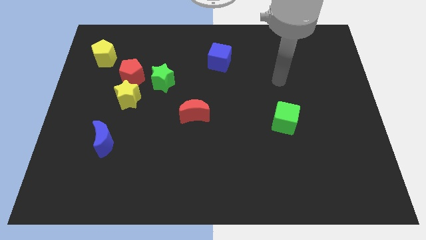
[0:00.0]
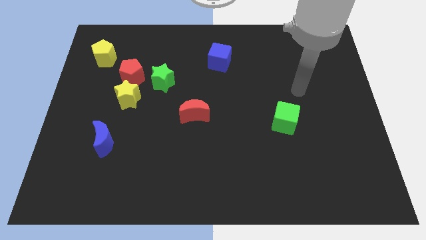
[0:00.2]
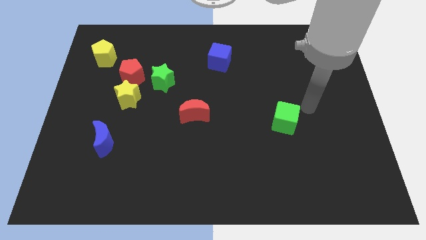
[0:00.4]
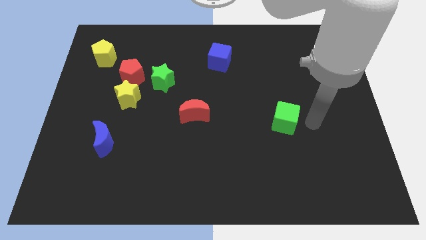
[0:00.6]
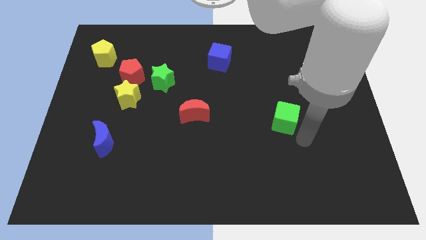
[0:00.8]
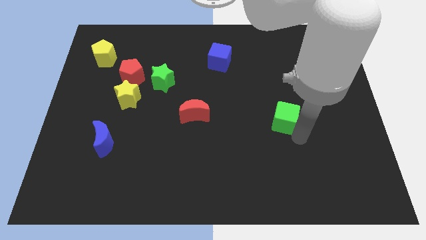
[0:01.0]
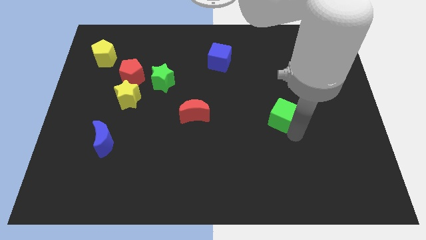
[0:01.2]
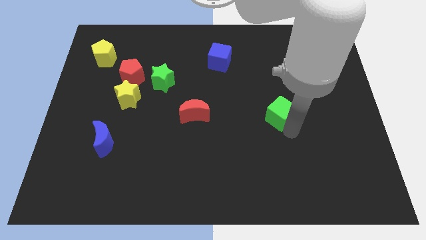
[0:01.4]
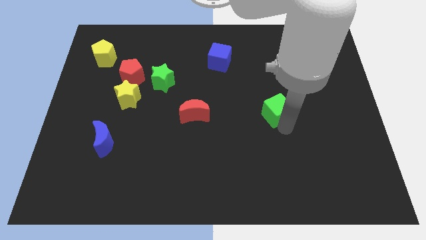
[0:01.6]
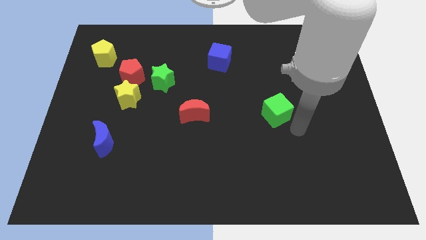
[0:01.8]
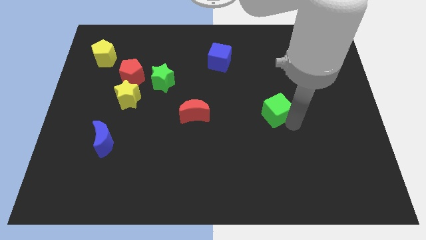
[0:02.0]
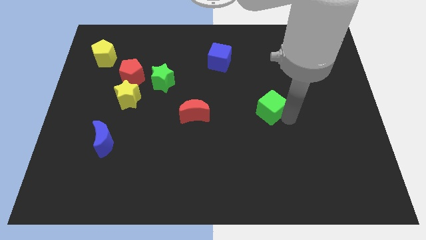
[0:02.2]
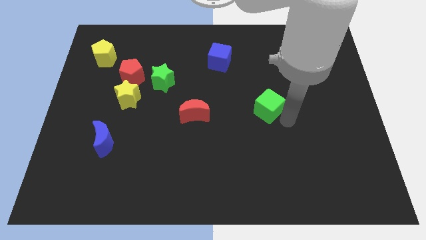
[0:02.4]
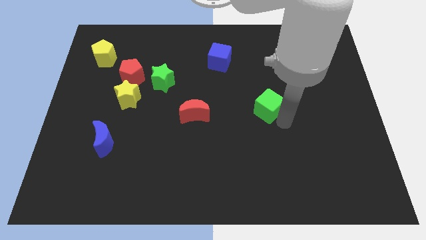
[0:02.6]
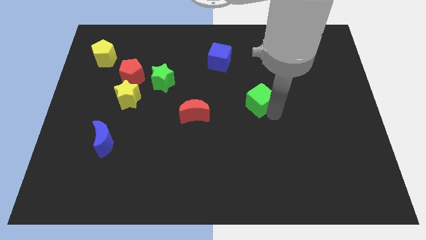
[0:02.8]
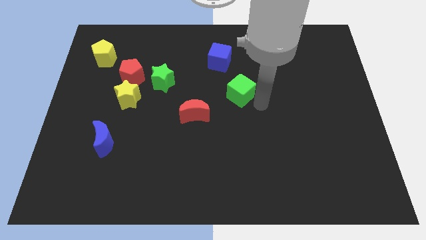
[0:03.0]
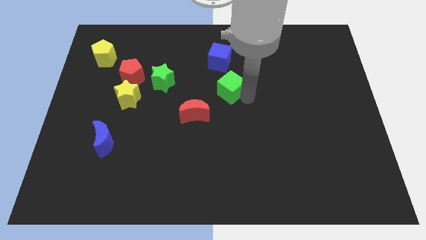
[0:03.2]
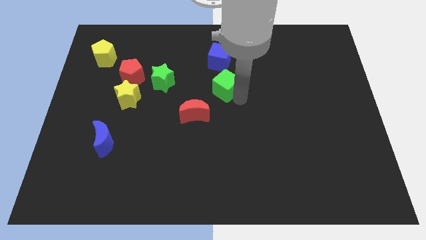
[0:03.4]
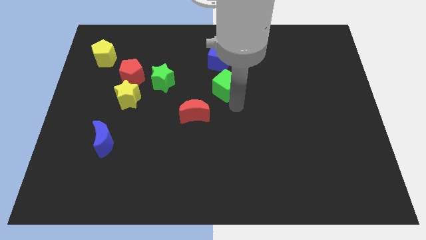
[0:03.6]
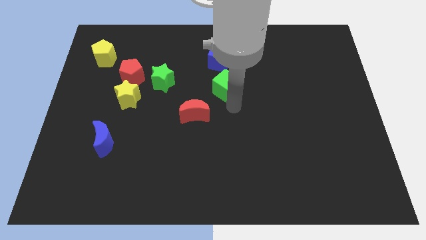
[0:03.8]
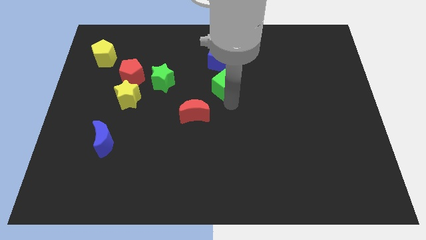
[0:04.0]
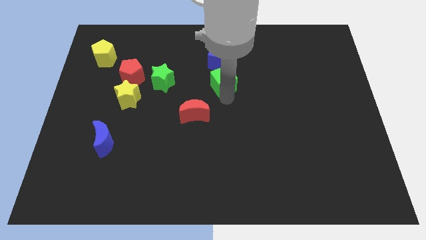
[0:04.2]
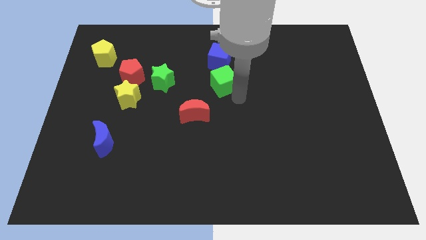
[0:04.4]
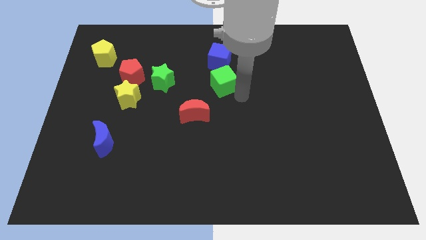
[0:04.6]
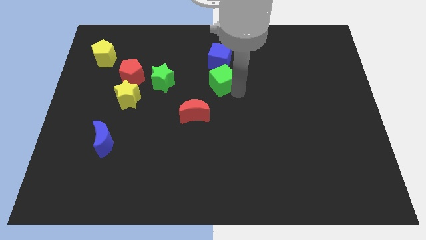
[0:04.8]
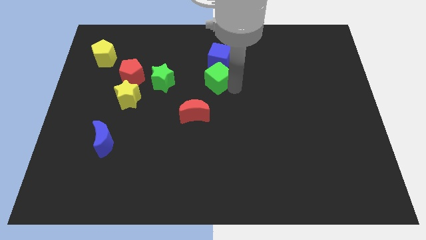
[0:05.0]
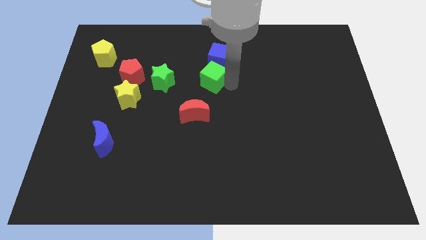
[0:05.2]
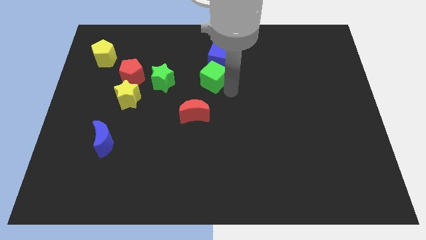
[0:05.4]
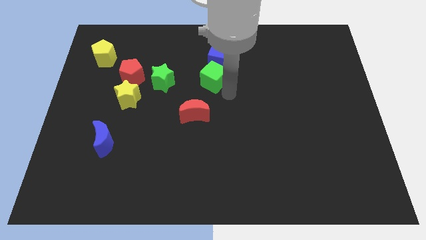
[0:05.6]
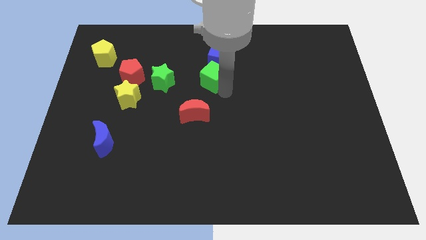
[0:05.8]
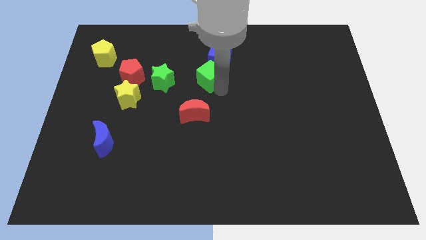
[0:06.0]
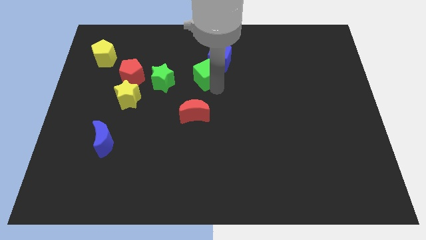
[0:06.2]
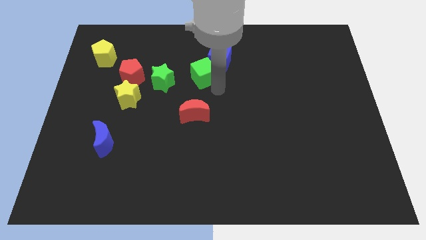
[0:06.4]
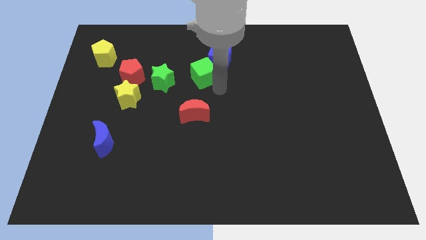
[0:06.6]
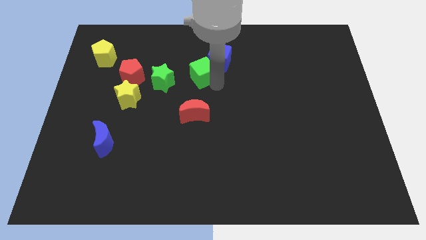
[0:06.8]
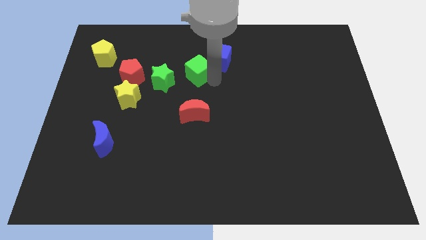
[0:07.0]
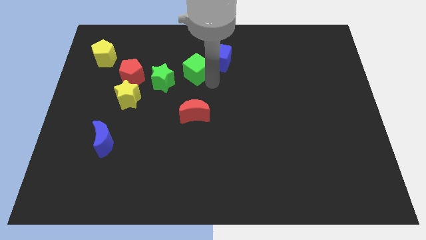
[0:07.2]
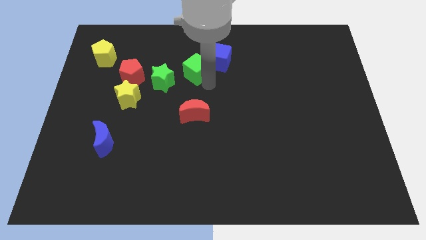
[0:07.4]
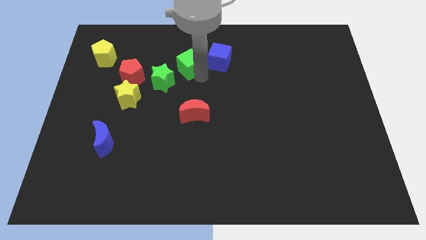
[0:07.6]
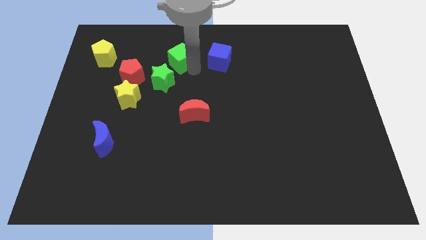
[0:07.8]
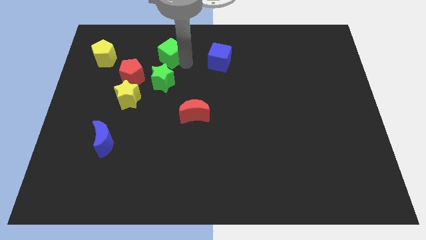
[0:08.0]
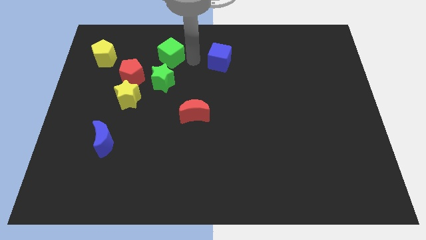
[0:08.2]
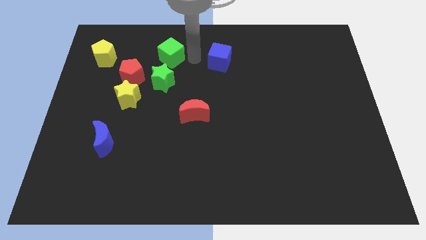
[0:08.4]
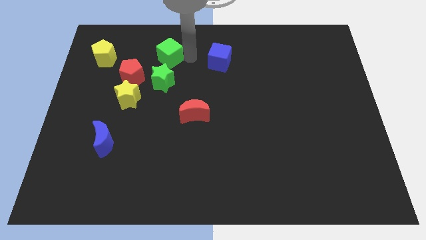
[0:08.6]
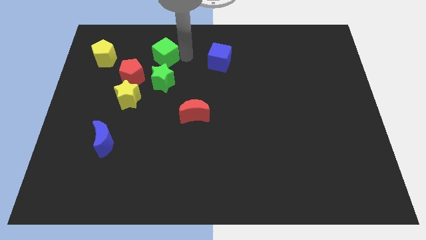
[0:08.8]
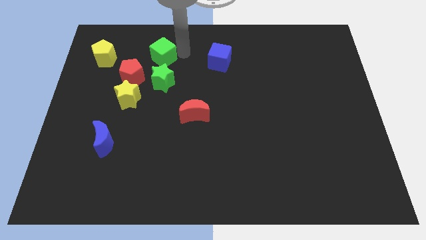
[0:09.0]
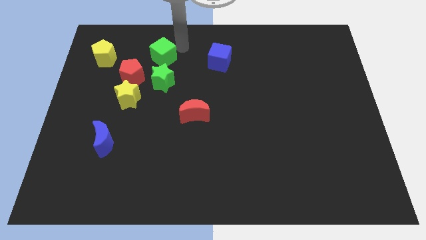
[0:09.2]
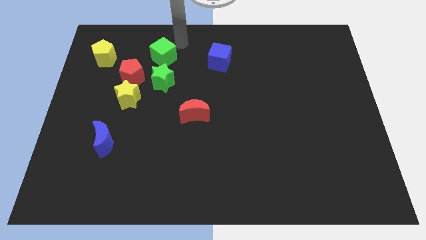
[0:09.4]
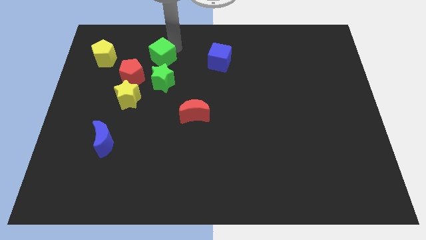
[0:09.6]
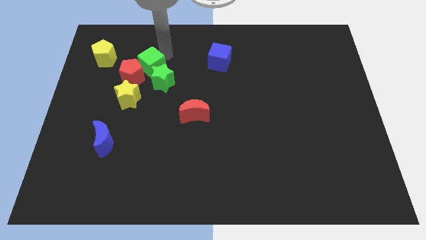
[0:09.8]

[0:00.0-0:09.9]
slide the green cube close to the red pentagon

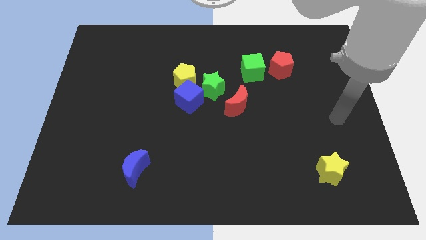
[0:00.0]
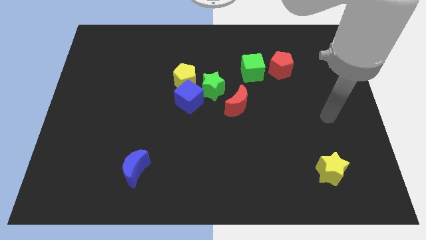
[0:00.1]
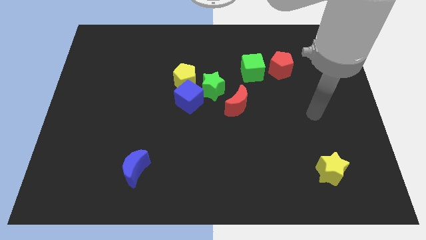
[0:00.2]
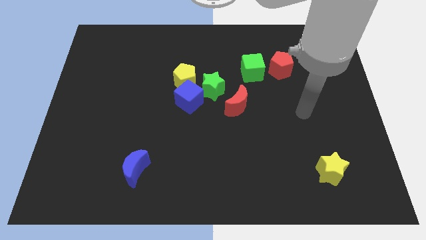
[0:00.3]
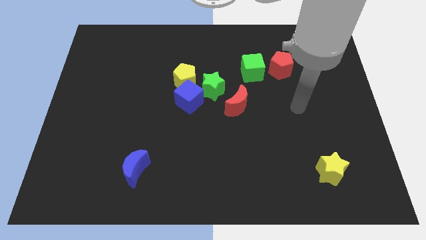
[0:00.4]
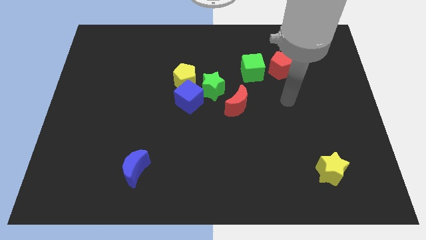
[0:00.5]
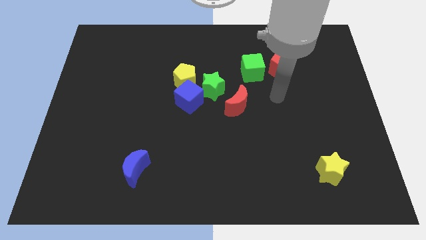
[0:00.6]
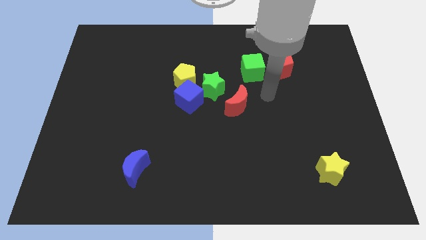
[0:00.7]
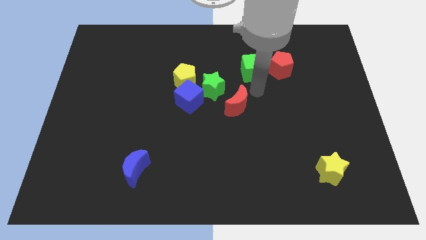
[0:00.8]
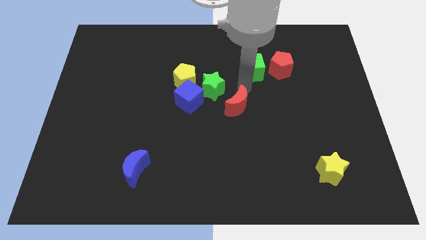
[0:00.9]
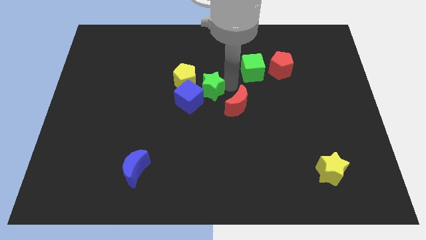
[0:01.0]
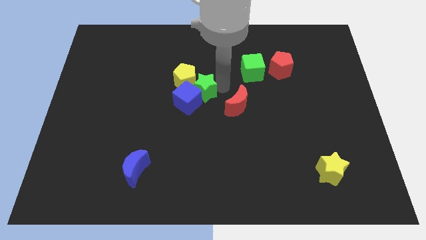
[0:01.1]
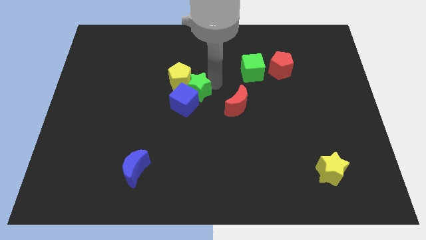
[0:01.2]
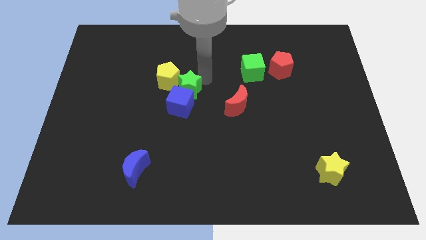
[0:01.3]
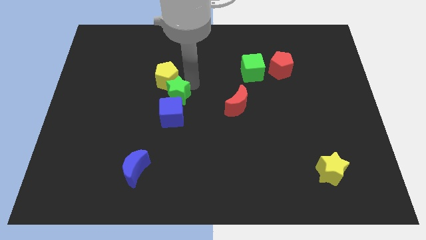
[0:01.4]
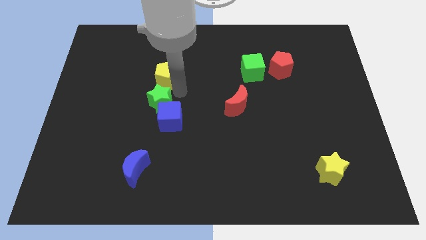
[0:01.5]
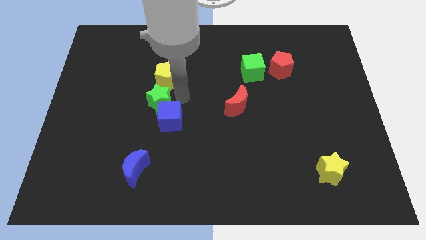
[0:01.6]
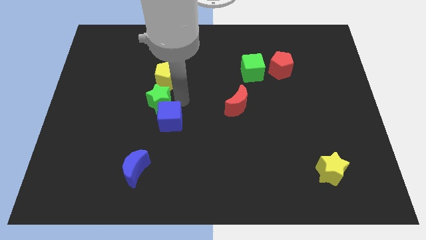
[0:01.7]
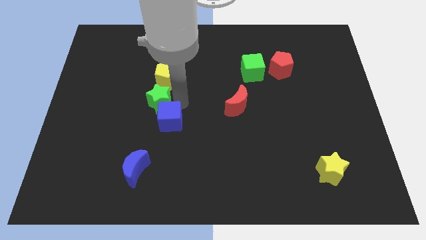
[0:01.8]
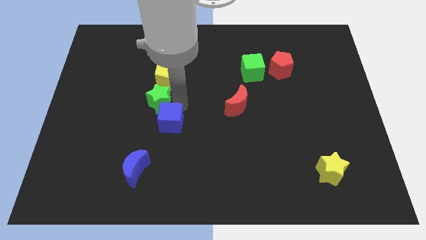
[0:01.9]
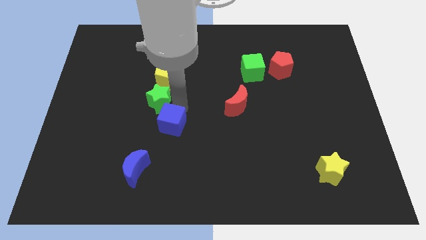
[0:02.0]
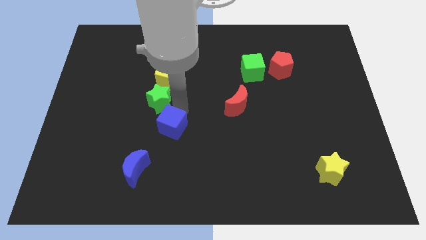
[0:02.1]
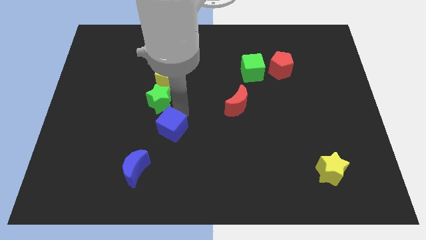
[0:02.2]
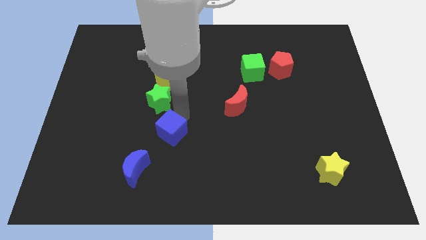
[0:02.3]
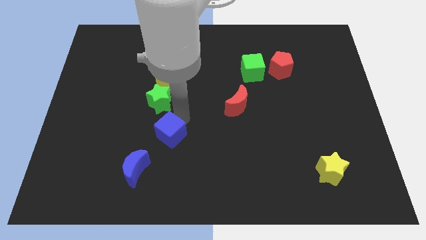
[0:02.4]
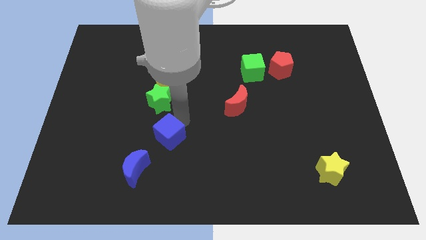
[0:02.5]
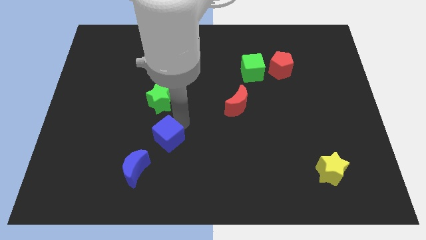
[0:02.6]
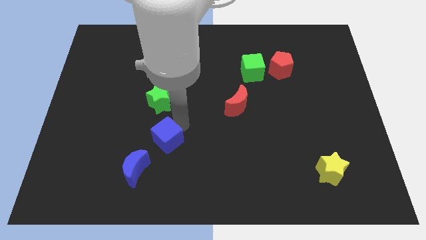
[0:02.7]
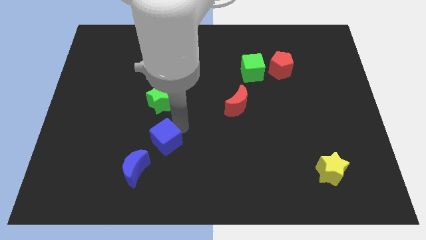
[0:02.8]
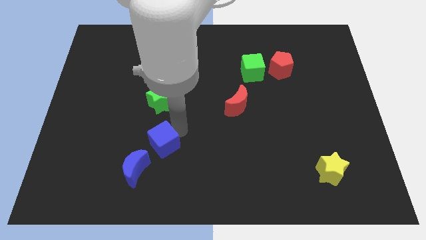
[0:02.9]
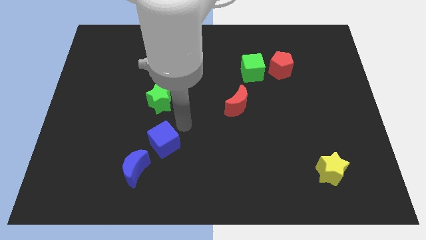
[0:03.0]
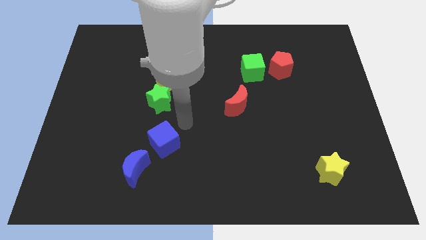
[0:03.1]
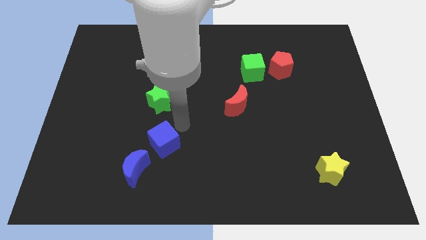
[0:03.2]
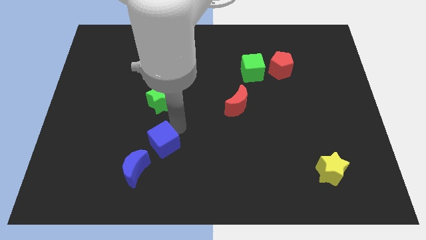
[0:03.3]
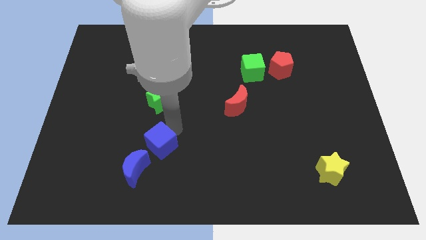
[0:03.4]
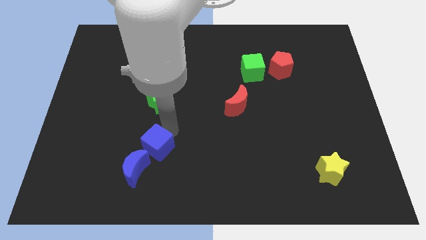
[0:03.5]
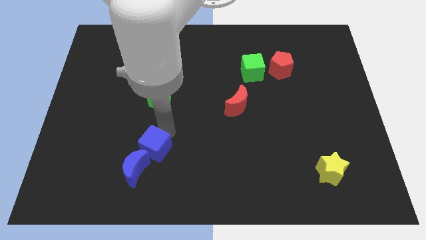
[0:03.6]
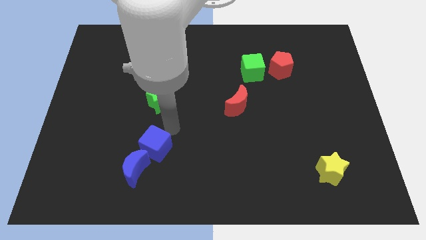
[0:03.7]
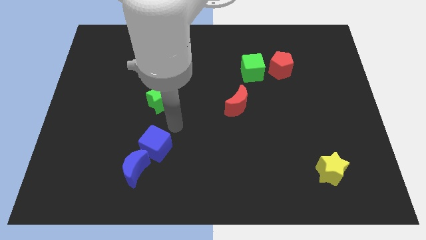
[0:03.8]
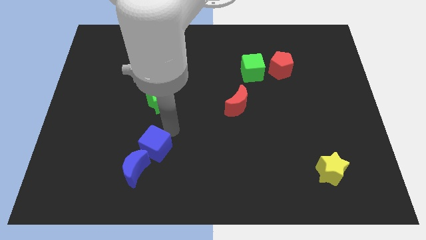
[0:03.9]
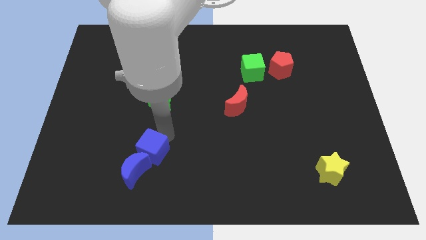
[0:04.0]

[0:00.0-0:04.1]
push the blue cube next to the blue moon
